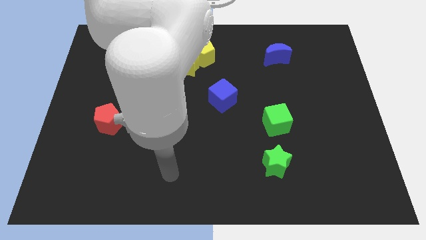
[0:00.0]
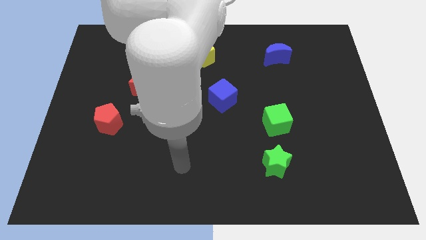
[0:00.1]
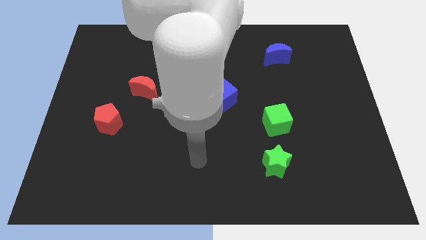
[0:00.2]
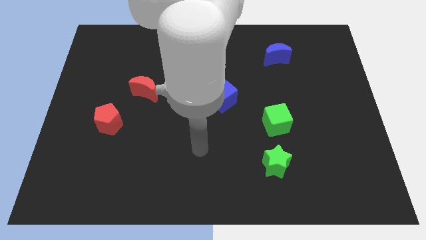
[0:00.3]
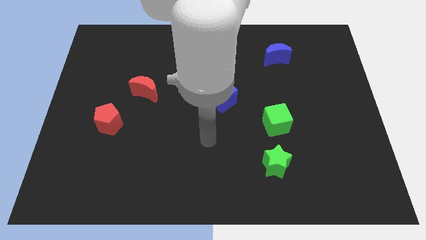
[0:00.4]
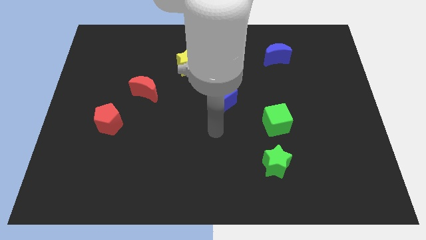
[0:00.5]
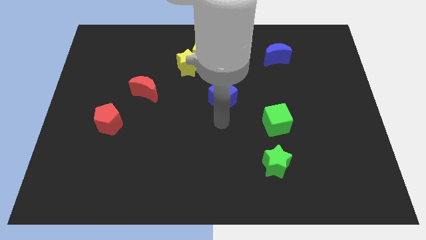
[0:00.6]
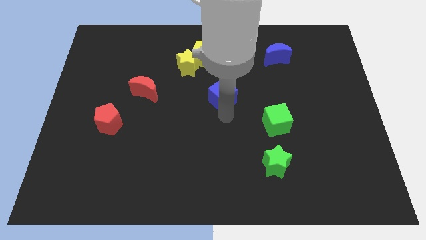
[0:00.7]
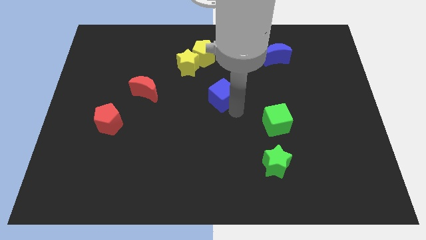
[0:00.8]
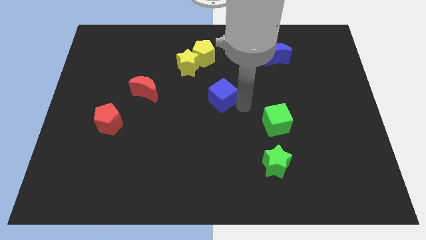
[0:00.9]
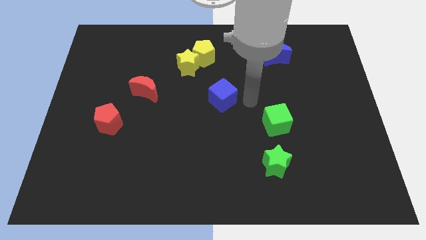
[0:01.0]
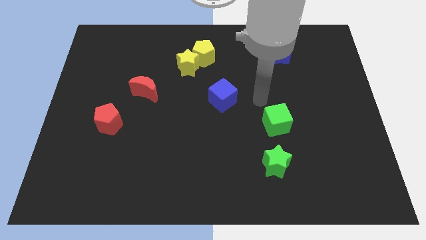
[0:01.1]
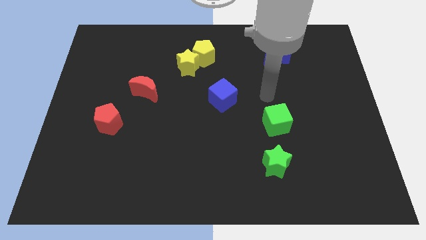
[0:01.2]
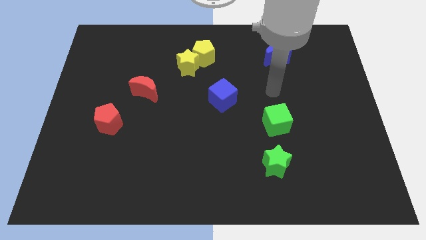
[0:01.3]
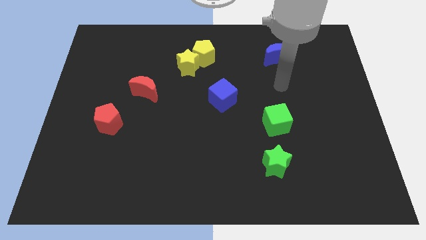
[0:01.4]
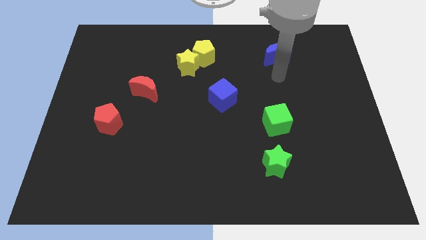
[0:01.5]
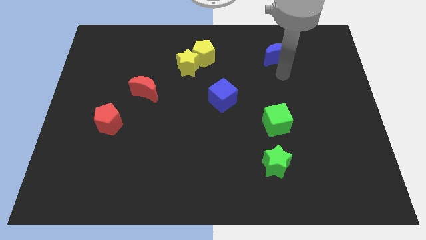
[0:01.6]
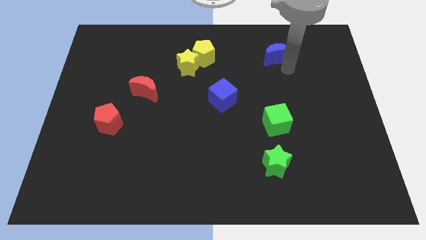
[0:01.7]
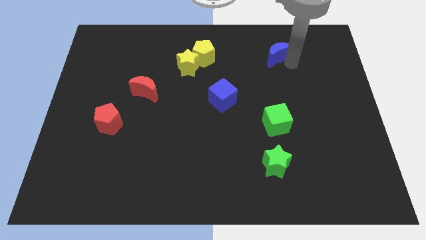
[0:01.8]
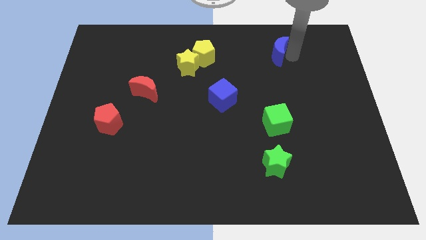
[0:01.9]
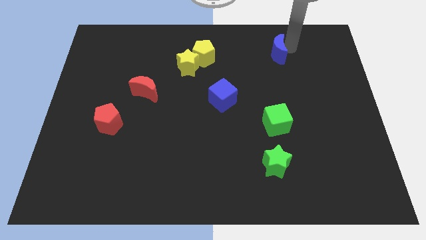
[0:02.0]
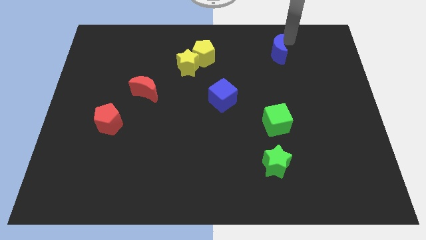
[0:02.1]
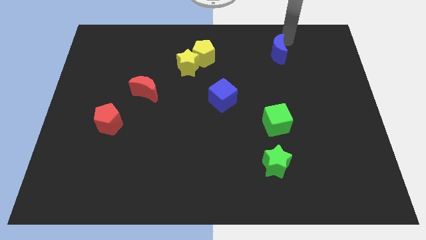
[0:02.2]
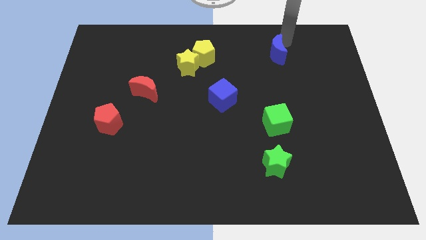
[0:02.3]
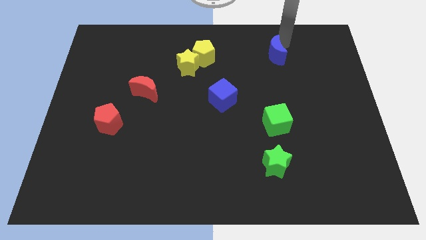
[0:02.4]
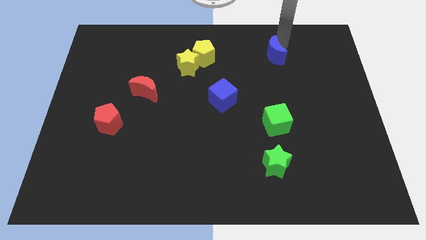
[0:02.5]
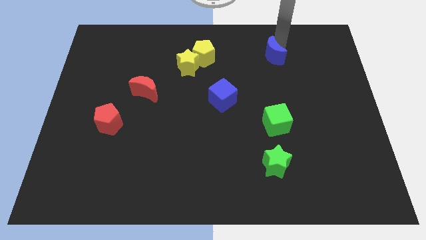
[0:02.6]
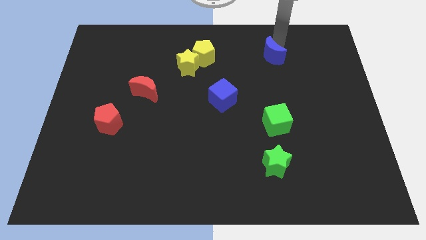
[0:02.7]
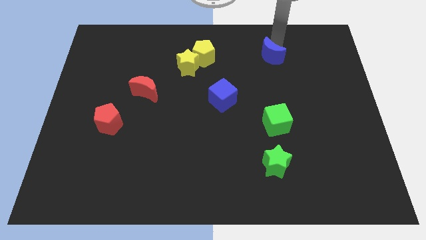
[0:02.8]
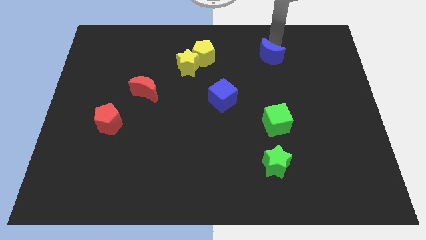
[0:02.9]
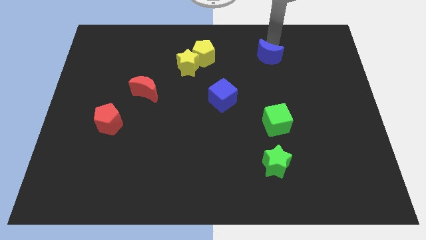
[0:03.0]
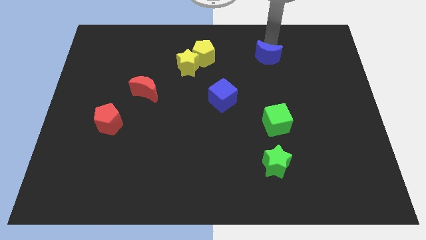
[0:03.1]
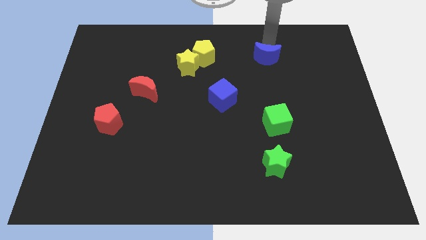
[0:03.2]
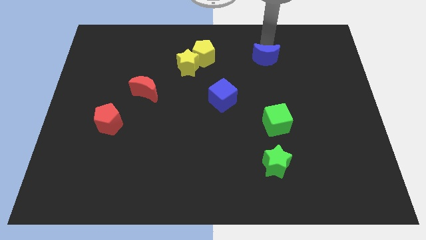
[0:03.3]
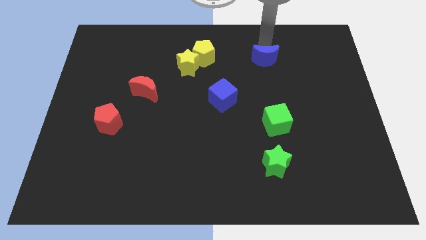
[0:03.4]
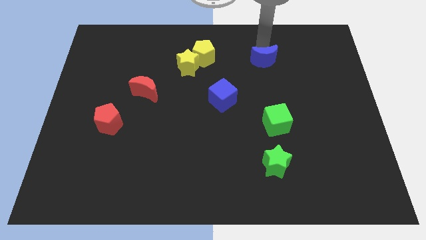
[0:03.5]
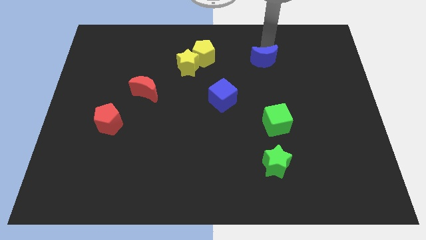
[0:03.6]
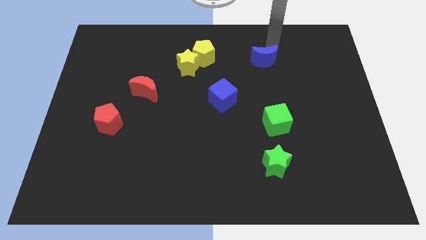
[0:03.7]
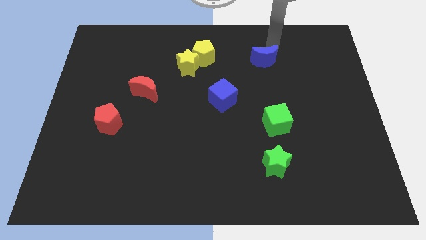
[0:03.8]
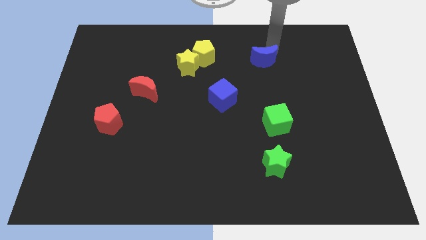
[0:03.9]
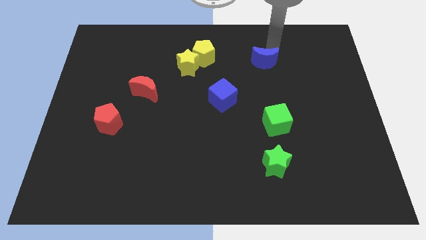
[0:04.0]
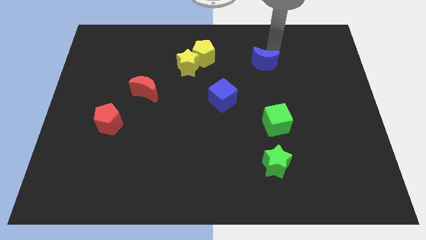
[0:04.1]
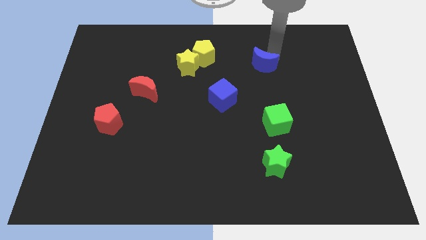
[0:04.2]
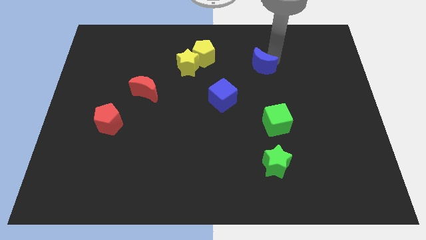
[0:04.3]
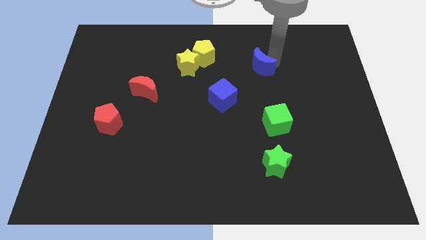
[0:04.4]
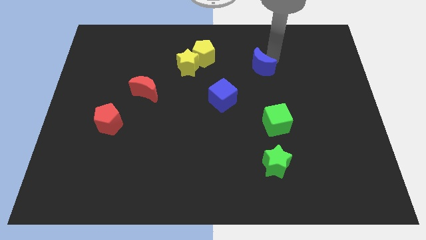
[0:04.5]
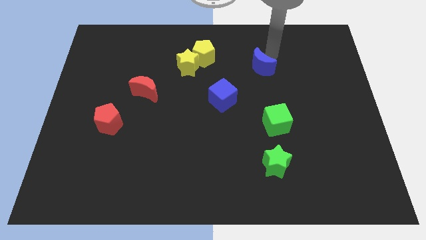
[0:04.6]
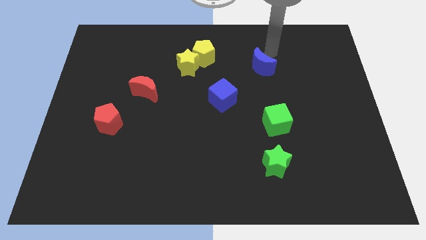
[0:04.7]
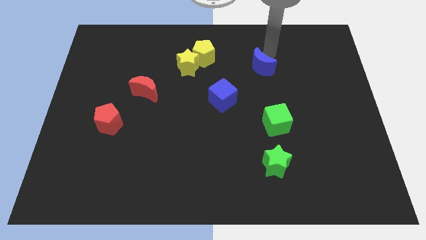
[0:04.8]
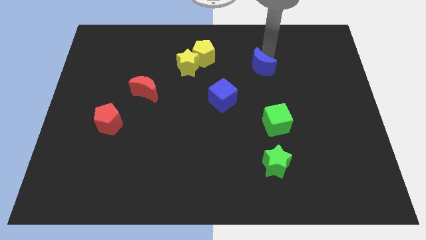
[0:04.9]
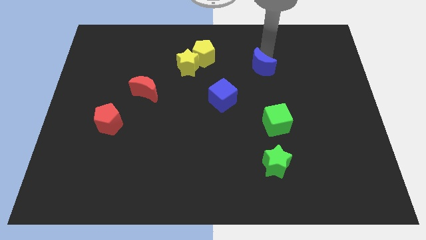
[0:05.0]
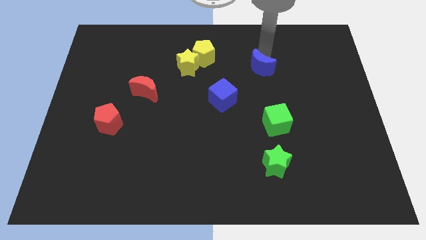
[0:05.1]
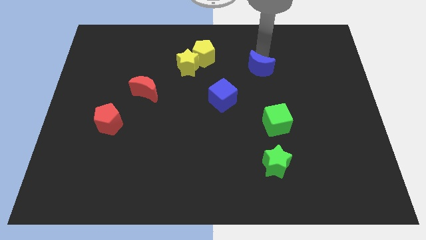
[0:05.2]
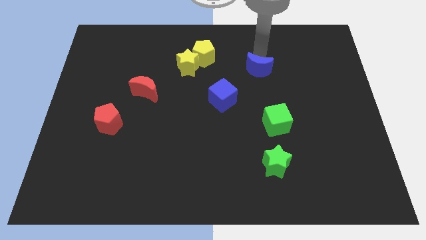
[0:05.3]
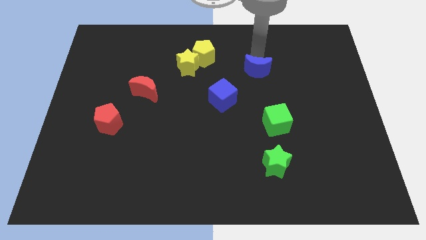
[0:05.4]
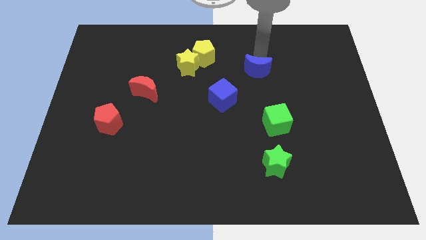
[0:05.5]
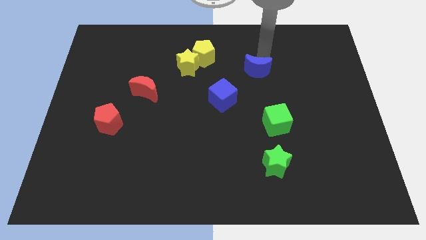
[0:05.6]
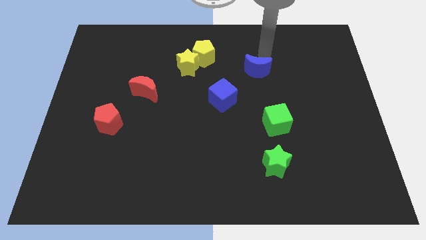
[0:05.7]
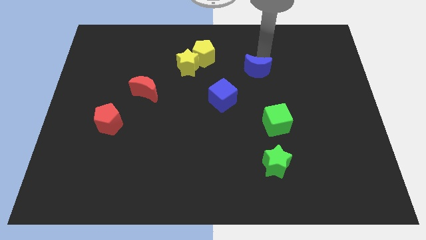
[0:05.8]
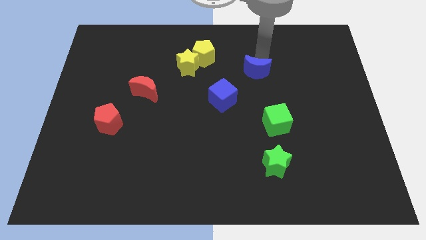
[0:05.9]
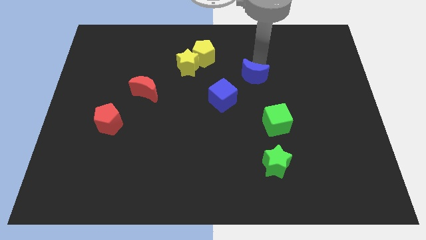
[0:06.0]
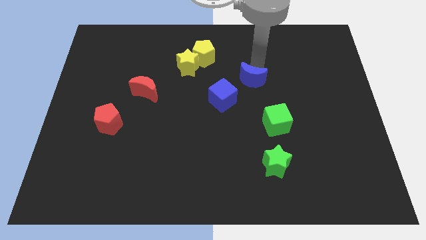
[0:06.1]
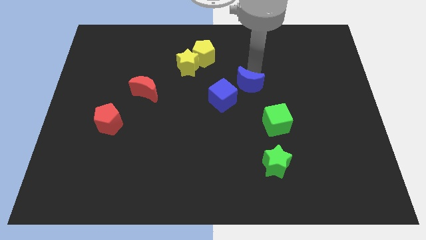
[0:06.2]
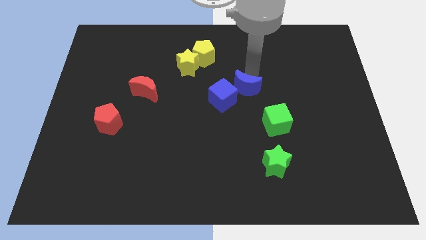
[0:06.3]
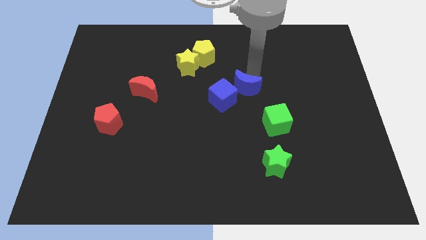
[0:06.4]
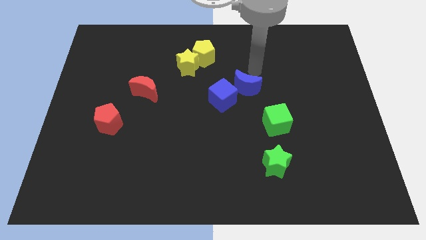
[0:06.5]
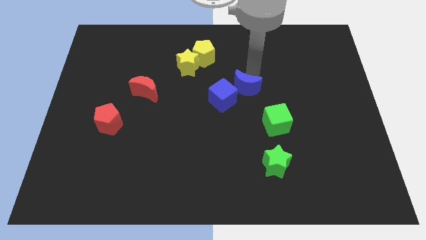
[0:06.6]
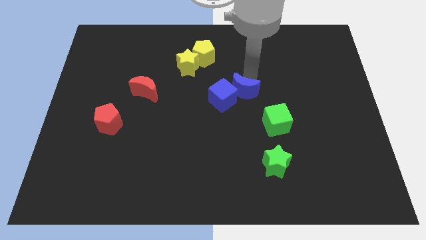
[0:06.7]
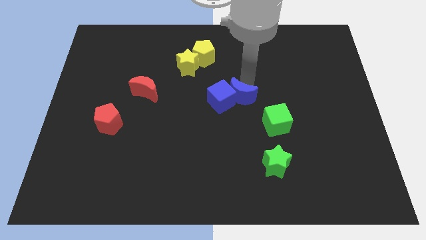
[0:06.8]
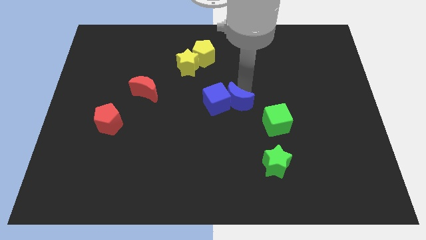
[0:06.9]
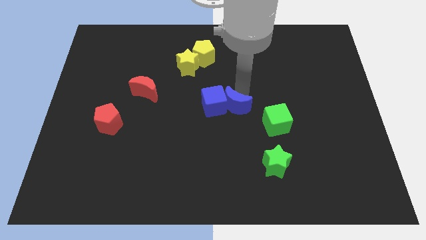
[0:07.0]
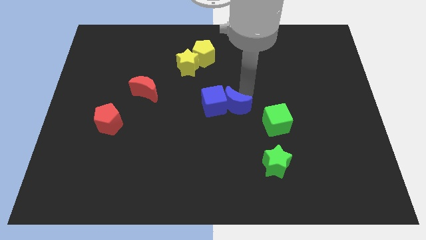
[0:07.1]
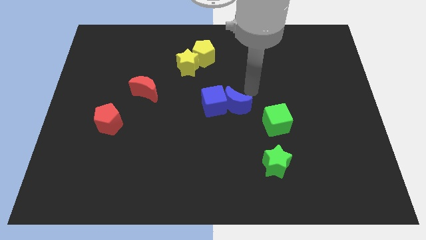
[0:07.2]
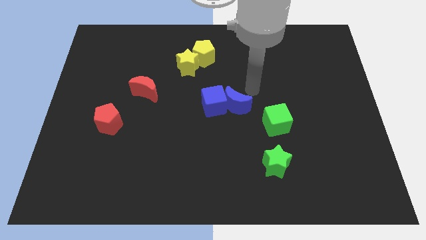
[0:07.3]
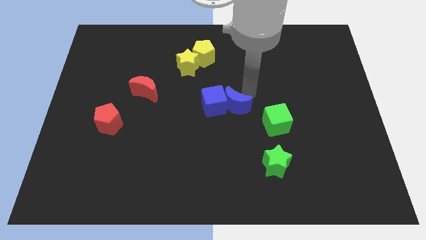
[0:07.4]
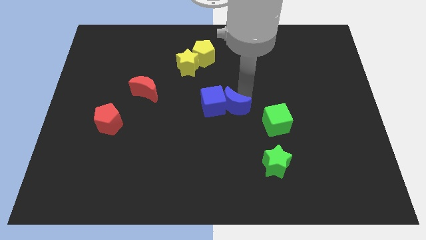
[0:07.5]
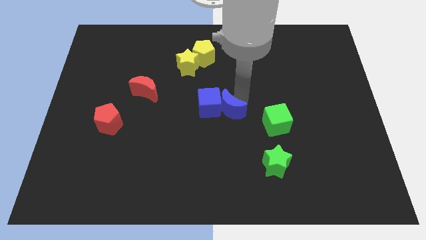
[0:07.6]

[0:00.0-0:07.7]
push the blue moon down and then left
